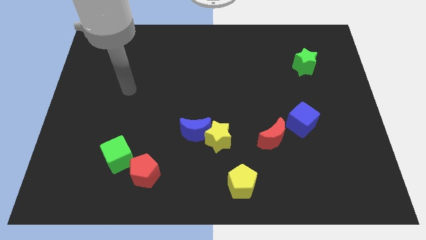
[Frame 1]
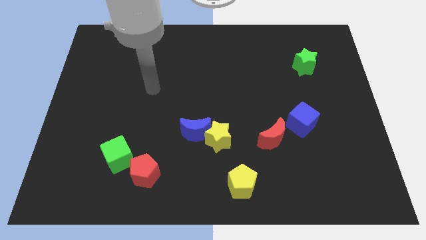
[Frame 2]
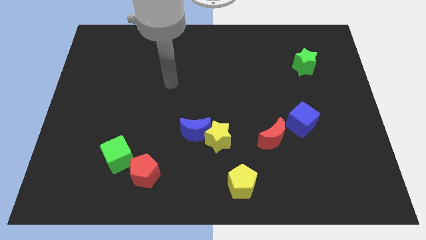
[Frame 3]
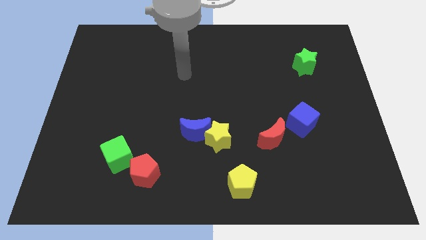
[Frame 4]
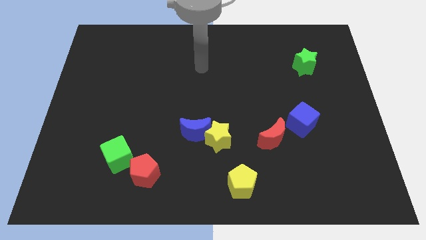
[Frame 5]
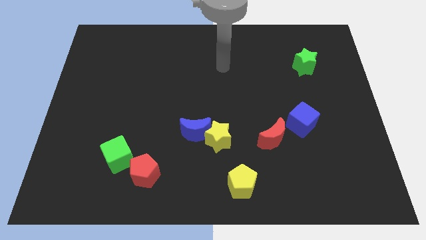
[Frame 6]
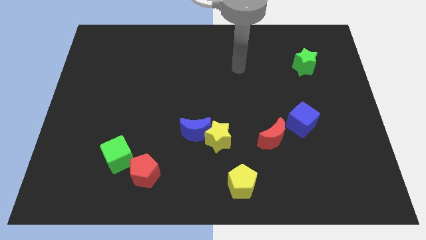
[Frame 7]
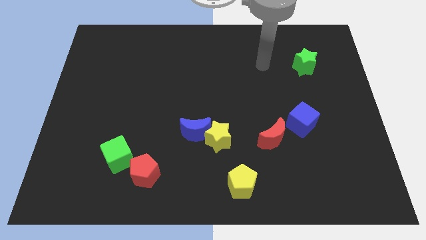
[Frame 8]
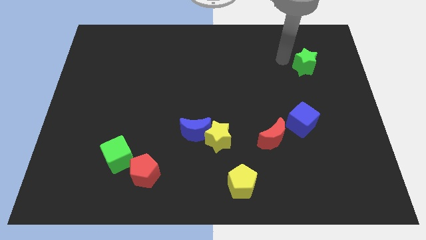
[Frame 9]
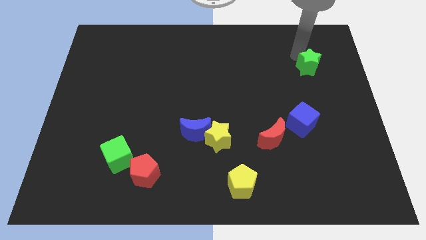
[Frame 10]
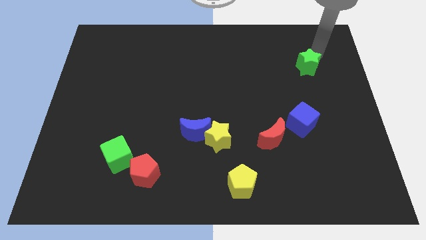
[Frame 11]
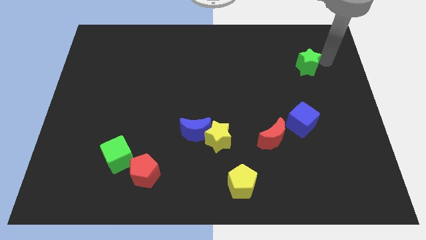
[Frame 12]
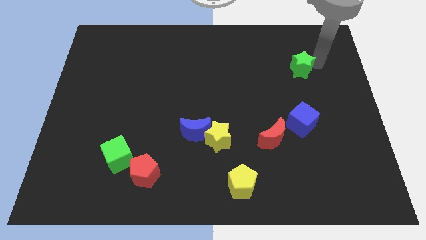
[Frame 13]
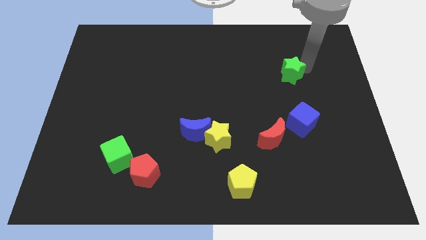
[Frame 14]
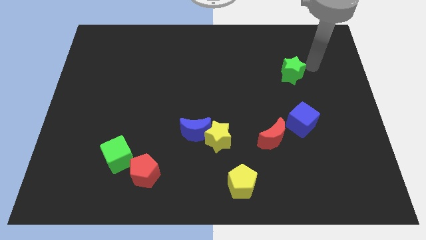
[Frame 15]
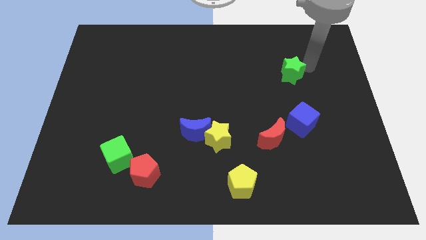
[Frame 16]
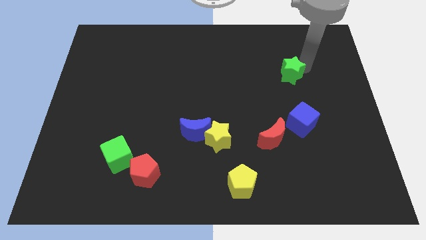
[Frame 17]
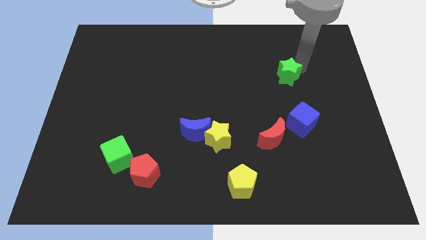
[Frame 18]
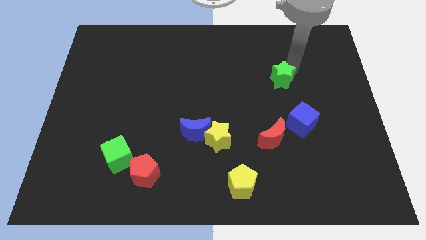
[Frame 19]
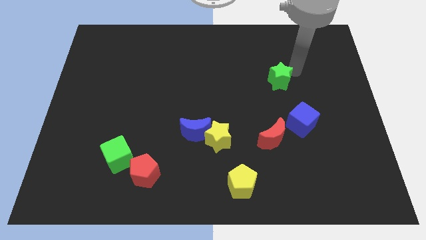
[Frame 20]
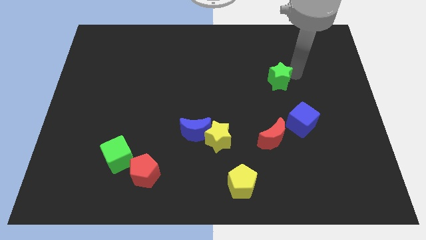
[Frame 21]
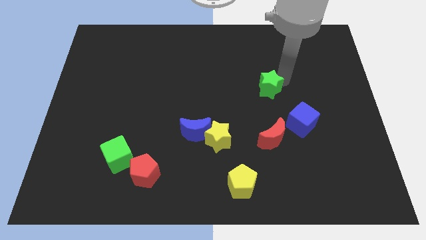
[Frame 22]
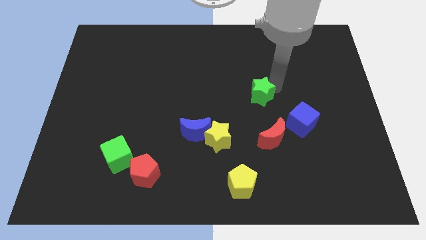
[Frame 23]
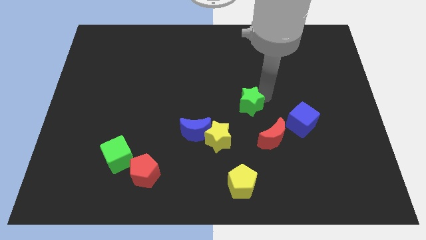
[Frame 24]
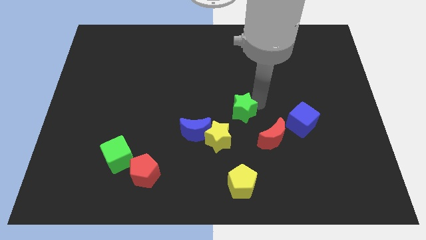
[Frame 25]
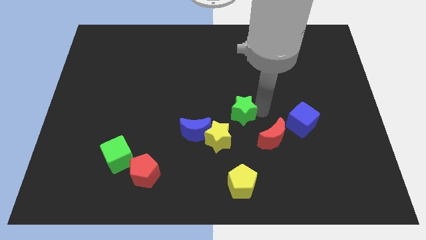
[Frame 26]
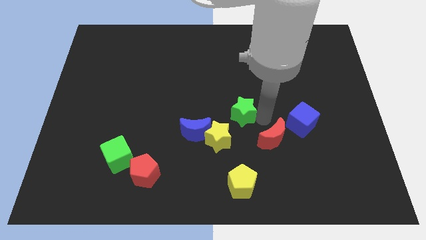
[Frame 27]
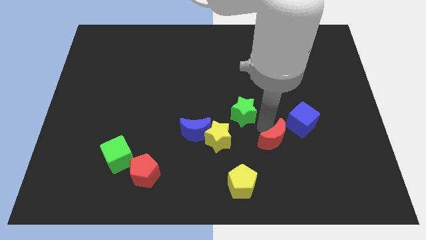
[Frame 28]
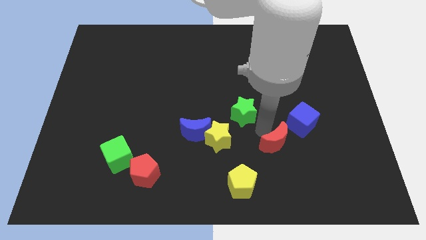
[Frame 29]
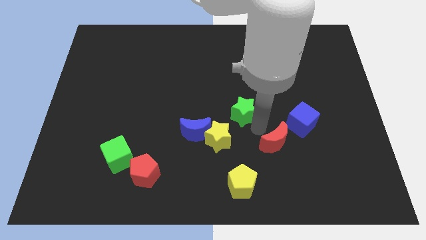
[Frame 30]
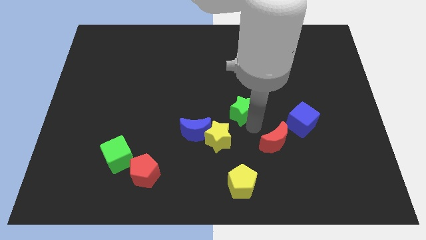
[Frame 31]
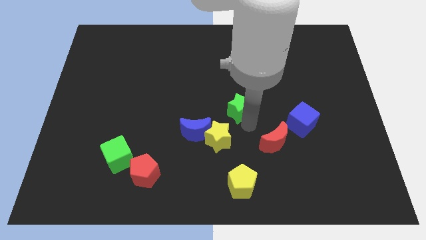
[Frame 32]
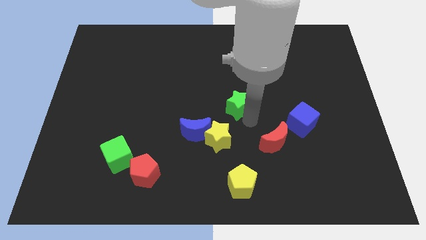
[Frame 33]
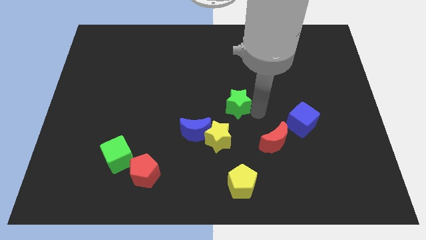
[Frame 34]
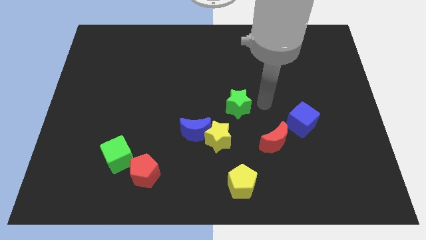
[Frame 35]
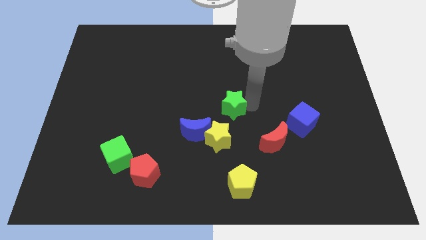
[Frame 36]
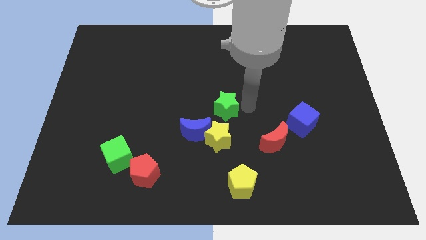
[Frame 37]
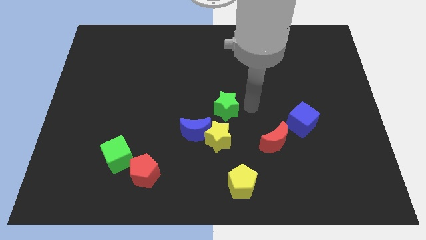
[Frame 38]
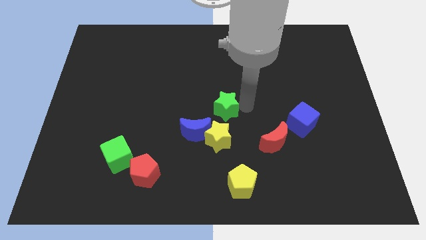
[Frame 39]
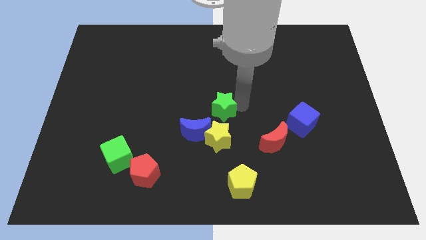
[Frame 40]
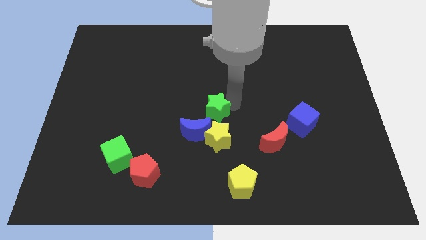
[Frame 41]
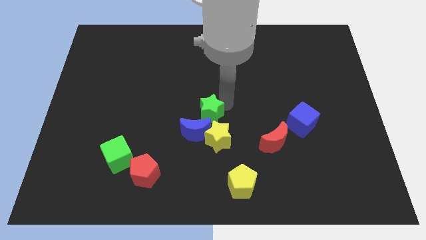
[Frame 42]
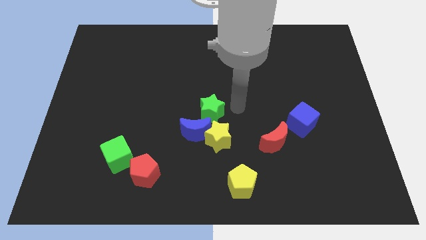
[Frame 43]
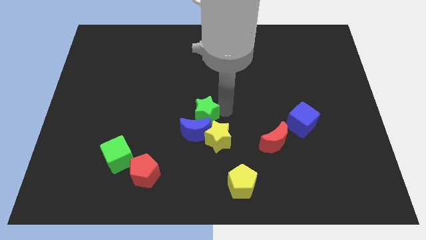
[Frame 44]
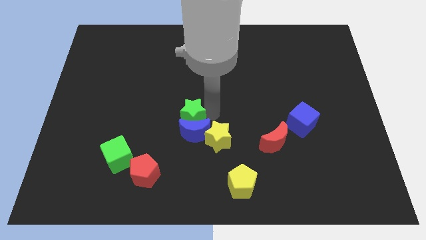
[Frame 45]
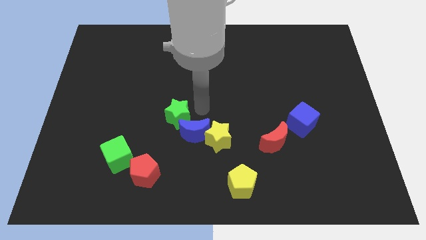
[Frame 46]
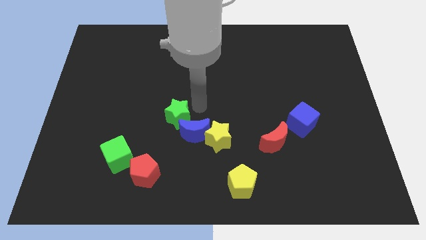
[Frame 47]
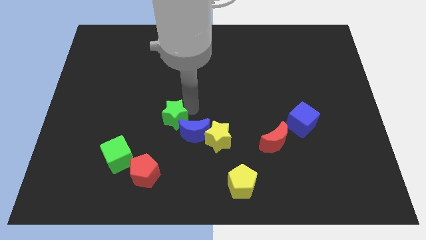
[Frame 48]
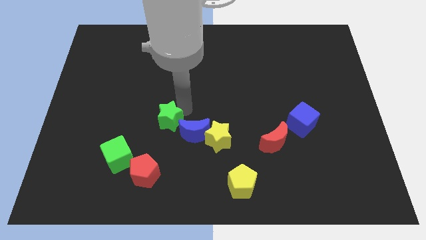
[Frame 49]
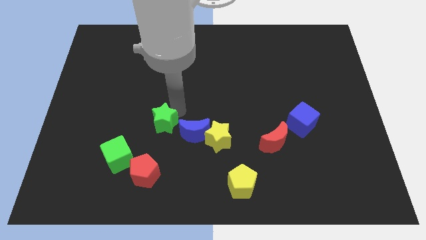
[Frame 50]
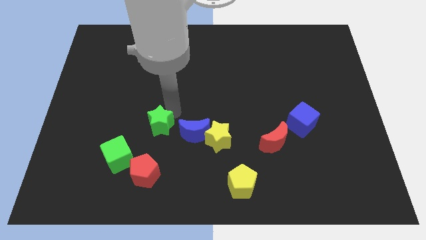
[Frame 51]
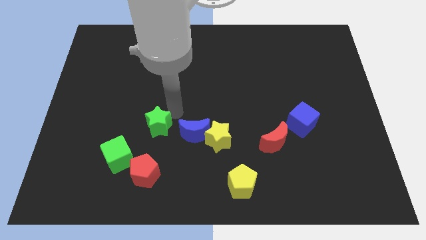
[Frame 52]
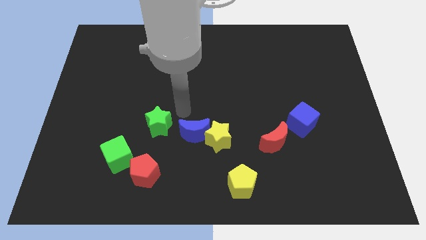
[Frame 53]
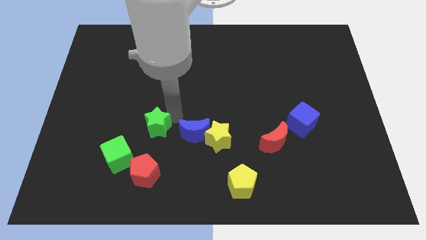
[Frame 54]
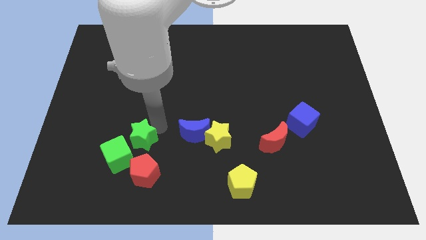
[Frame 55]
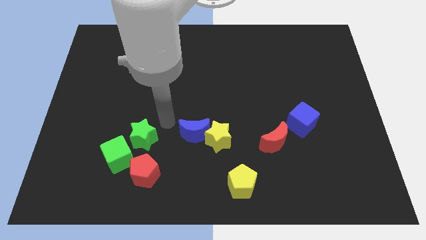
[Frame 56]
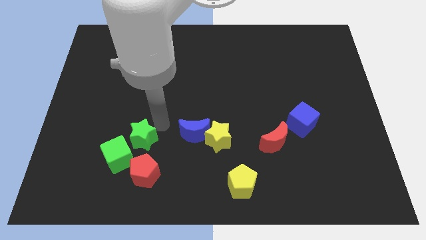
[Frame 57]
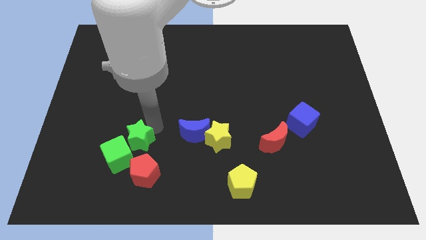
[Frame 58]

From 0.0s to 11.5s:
move the green star close to the green cube

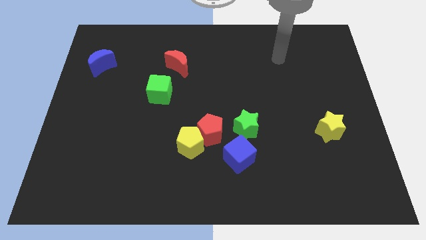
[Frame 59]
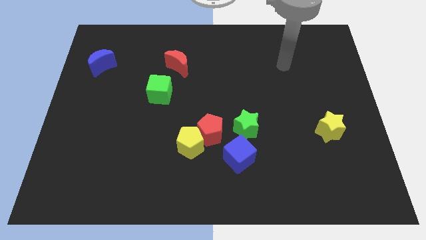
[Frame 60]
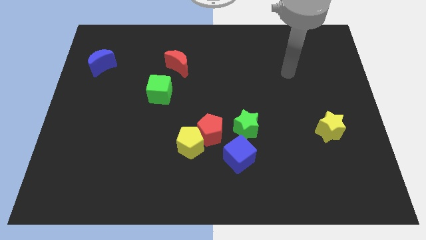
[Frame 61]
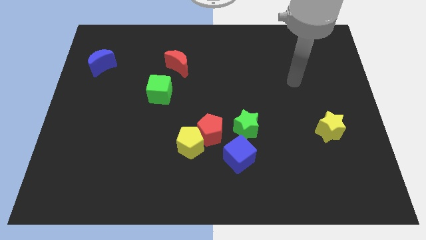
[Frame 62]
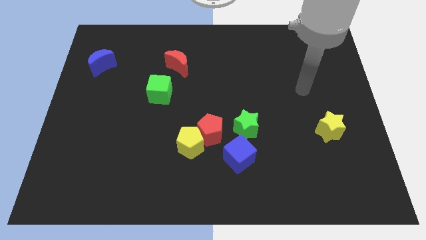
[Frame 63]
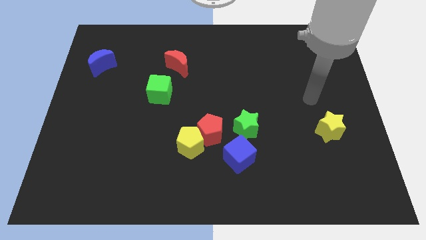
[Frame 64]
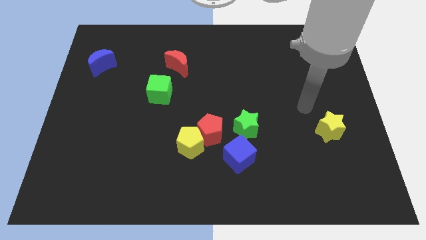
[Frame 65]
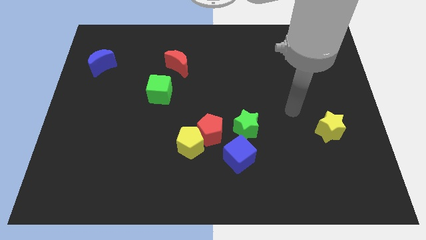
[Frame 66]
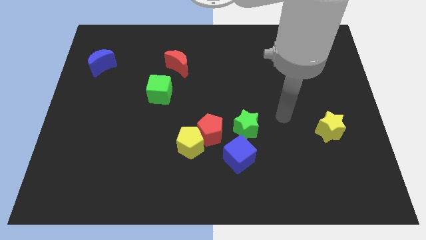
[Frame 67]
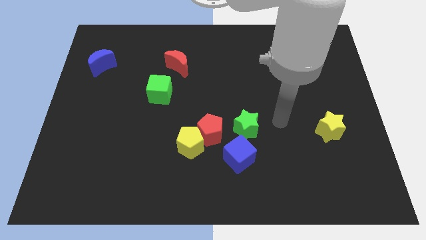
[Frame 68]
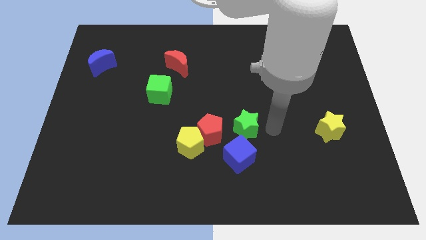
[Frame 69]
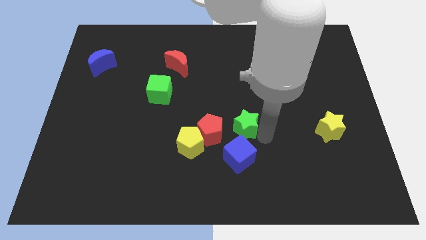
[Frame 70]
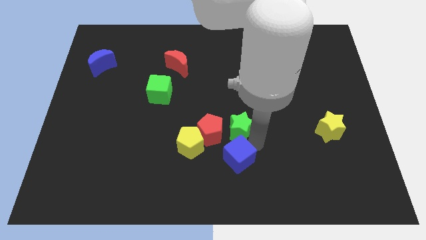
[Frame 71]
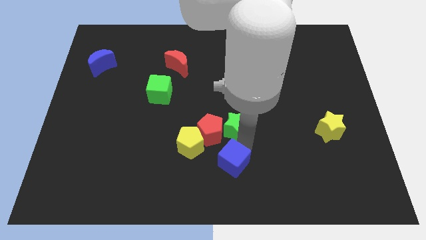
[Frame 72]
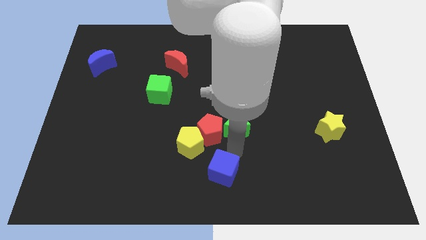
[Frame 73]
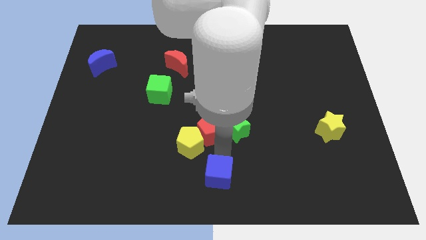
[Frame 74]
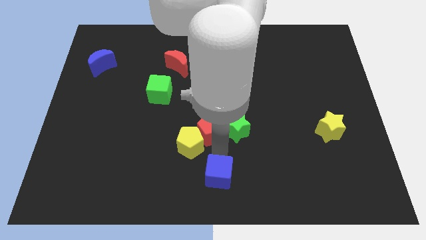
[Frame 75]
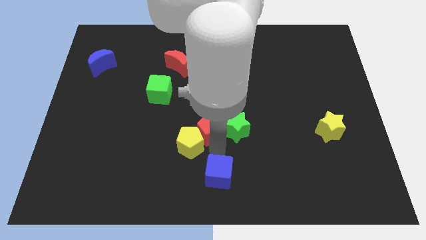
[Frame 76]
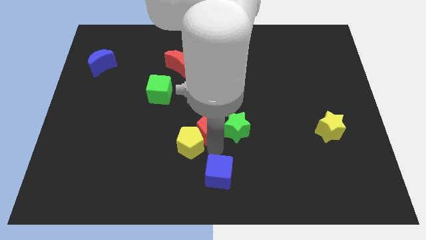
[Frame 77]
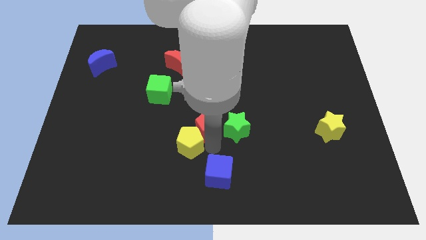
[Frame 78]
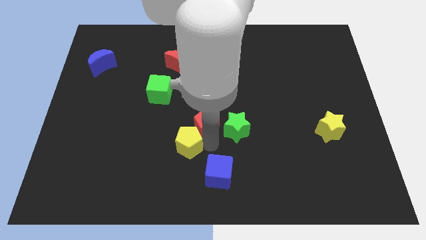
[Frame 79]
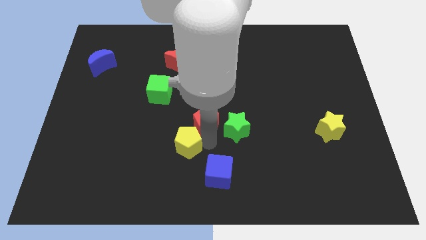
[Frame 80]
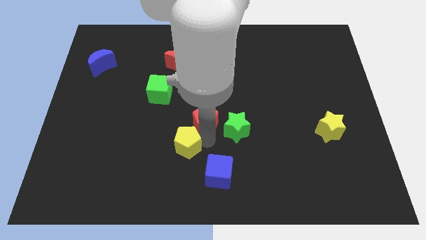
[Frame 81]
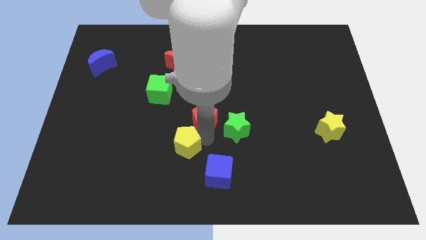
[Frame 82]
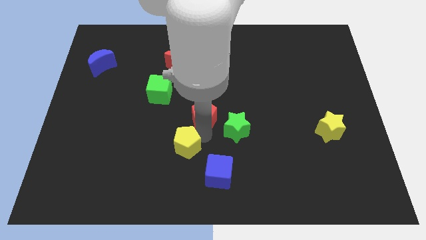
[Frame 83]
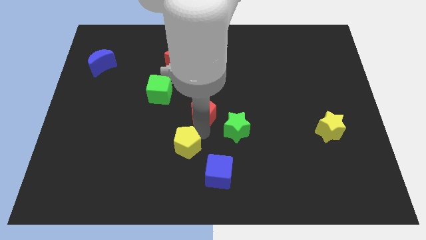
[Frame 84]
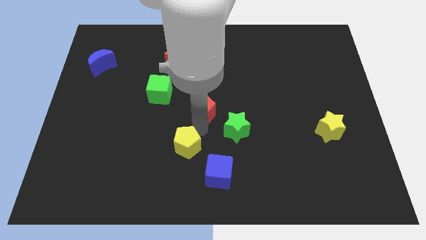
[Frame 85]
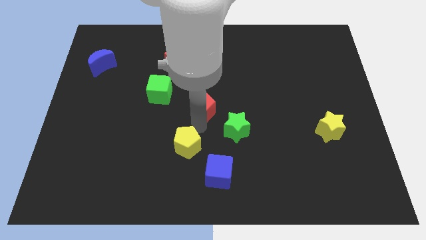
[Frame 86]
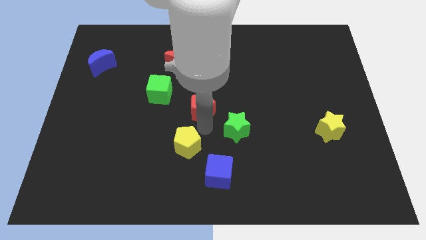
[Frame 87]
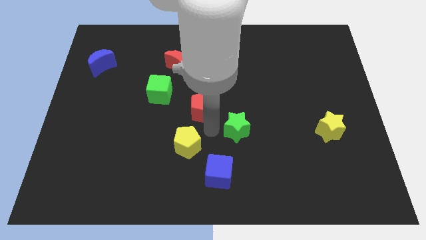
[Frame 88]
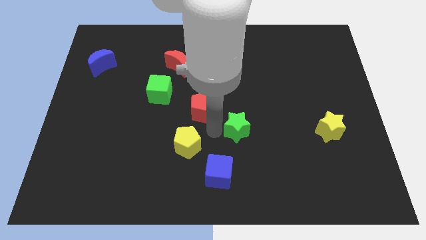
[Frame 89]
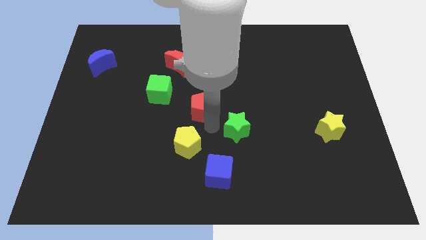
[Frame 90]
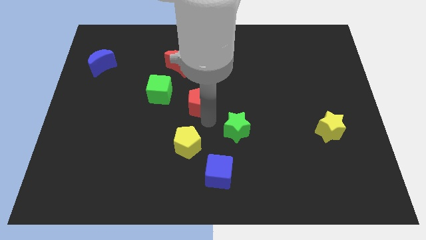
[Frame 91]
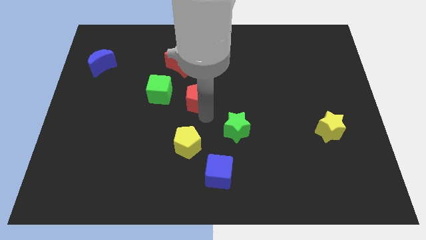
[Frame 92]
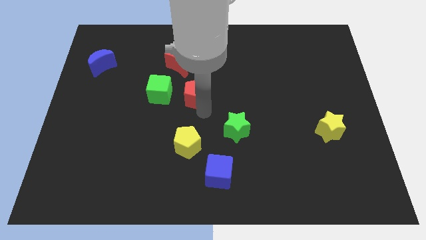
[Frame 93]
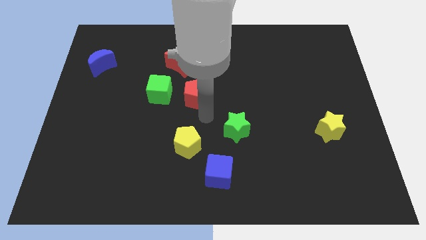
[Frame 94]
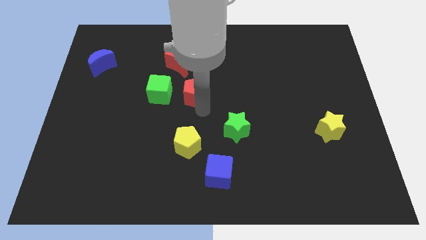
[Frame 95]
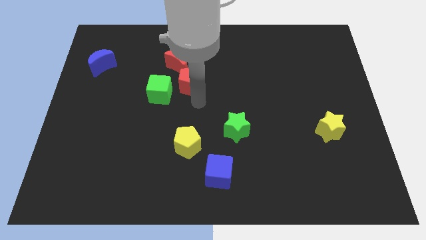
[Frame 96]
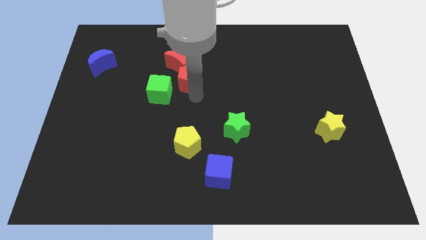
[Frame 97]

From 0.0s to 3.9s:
slide the red pentagon next to the red moon
